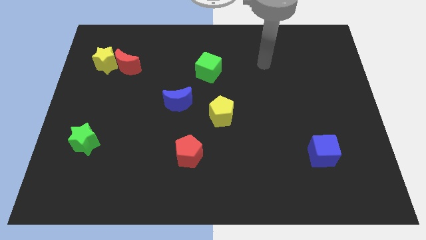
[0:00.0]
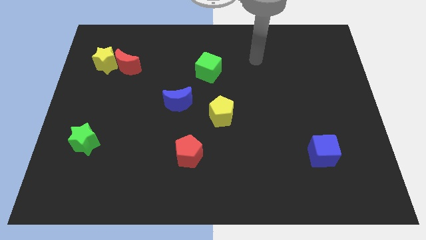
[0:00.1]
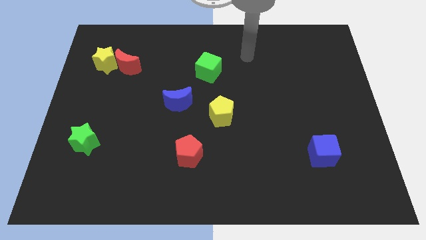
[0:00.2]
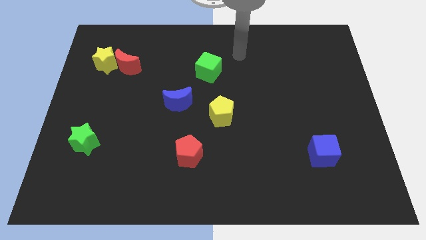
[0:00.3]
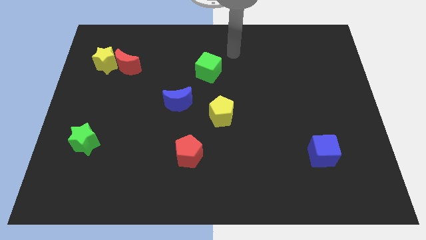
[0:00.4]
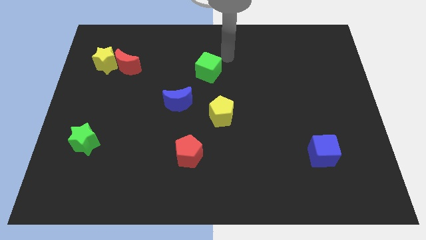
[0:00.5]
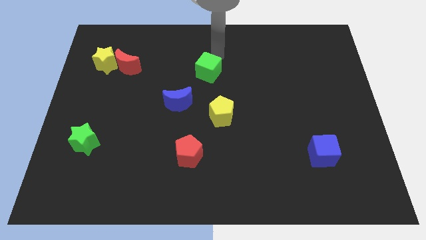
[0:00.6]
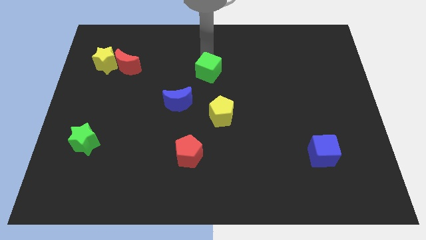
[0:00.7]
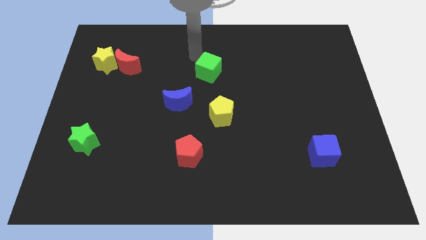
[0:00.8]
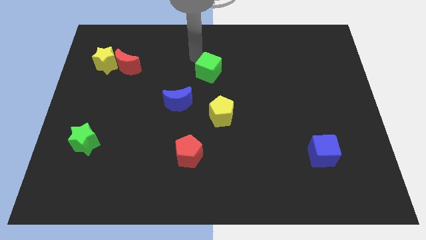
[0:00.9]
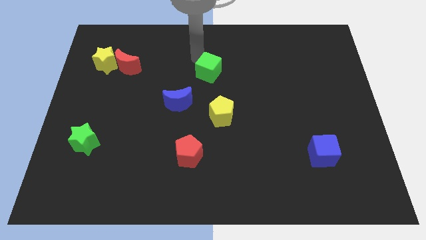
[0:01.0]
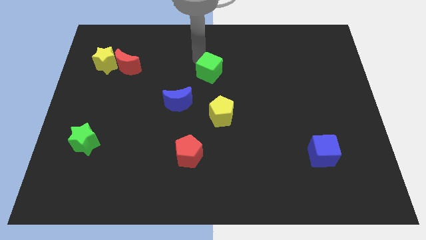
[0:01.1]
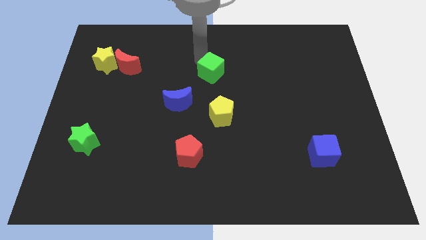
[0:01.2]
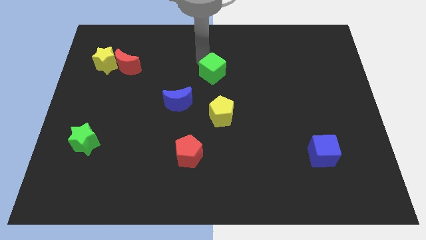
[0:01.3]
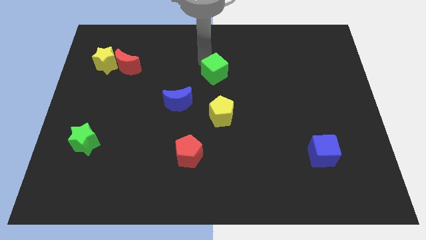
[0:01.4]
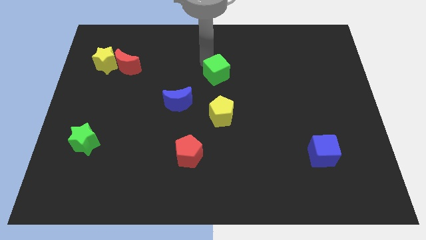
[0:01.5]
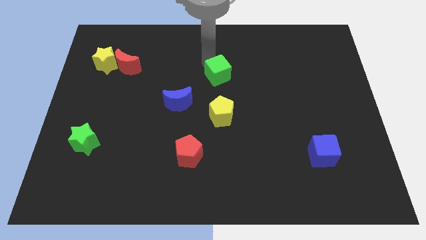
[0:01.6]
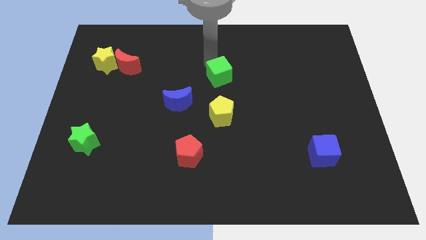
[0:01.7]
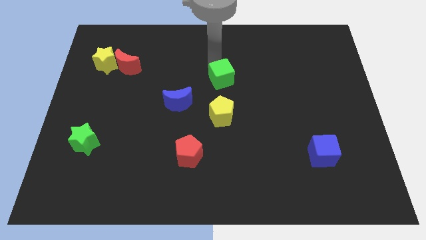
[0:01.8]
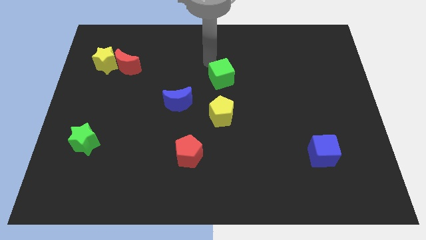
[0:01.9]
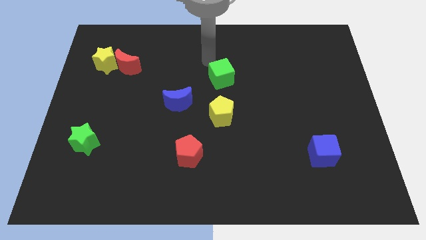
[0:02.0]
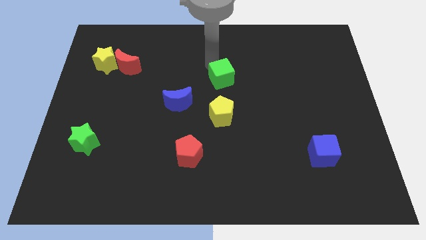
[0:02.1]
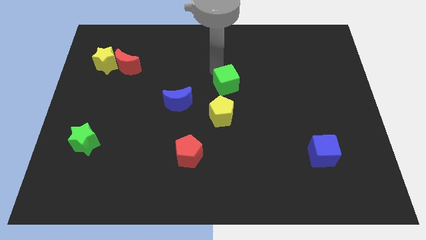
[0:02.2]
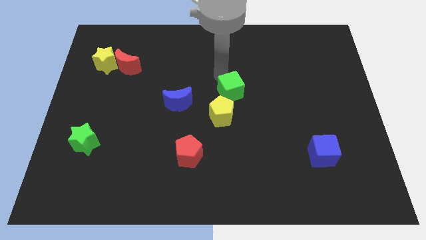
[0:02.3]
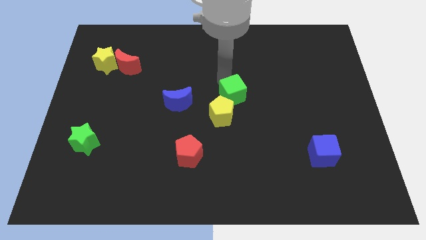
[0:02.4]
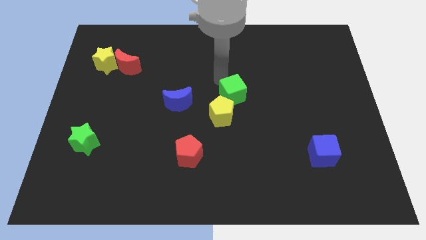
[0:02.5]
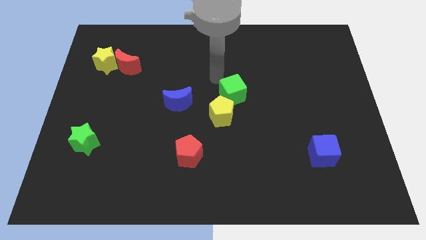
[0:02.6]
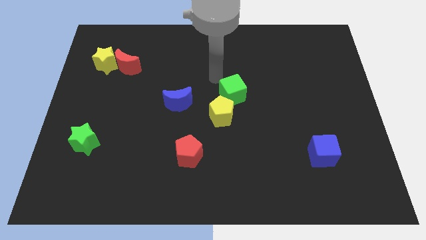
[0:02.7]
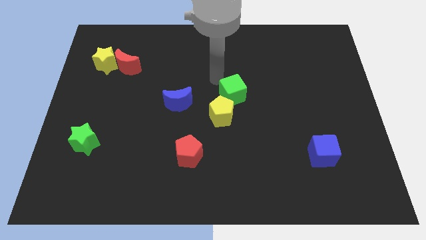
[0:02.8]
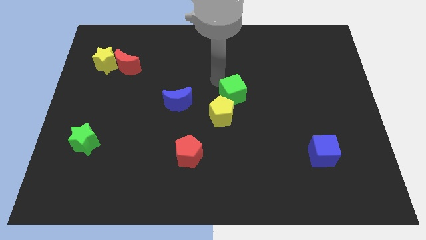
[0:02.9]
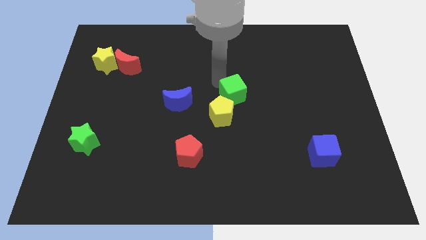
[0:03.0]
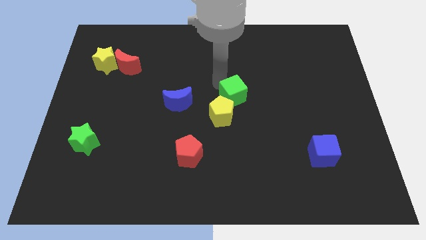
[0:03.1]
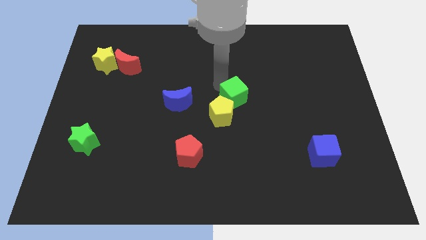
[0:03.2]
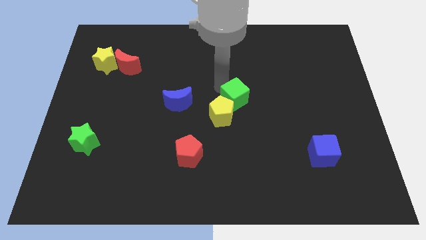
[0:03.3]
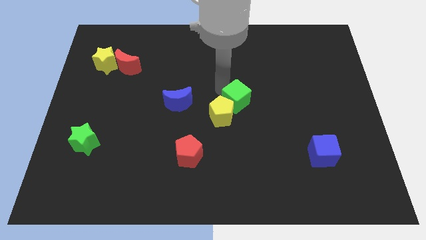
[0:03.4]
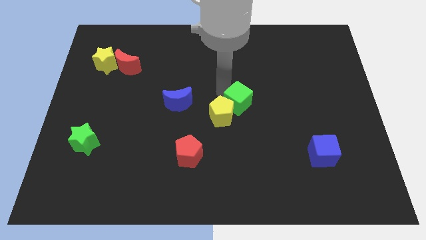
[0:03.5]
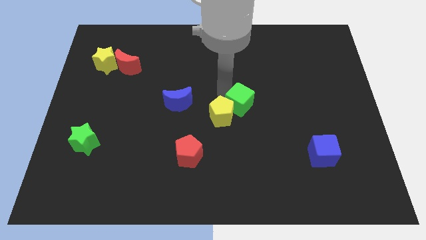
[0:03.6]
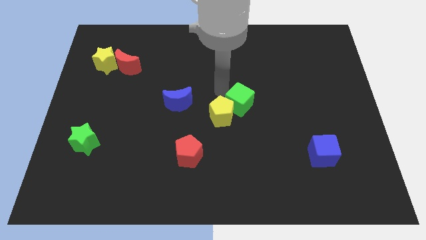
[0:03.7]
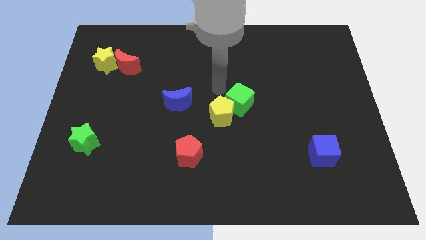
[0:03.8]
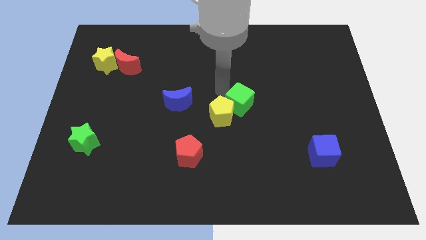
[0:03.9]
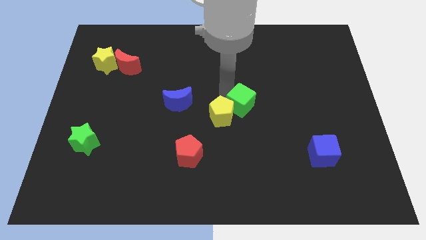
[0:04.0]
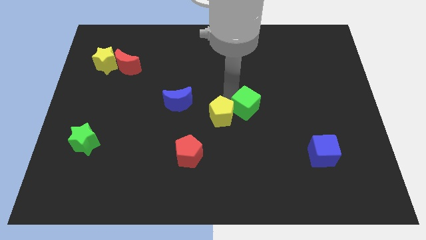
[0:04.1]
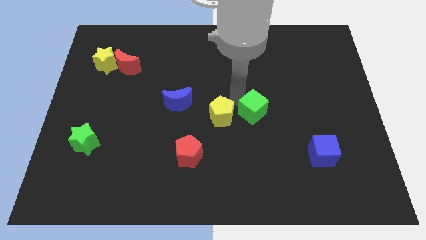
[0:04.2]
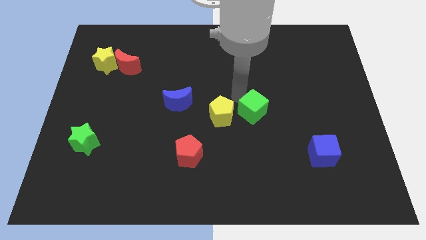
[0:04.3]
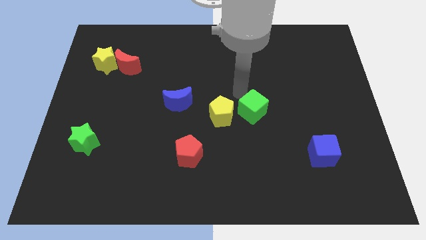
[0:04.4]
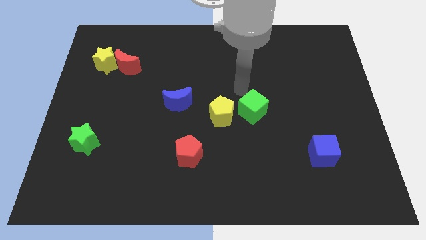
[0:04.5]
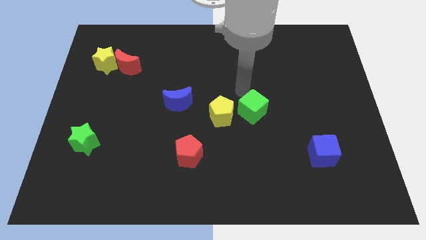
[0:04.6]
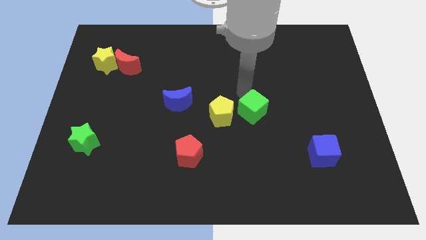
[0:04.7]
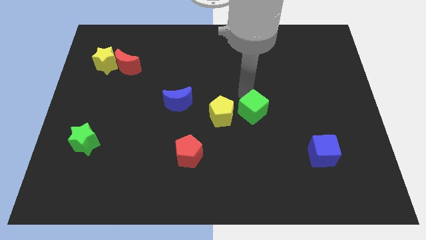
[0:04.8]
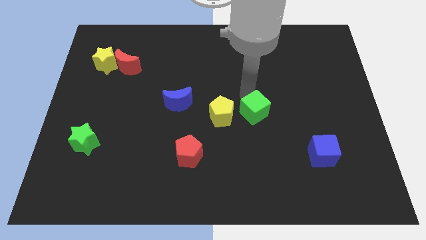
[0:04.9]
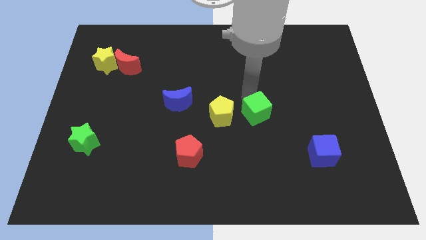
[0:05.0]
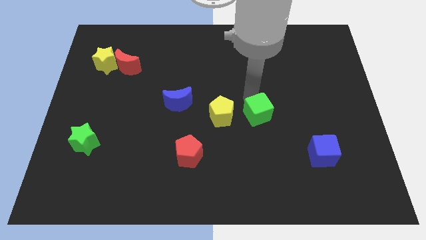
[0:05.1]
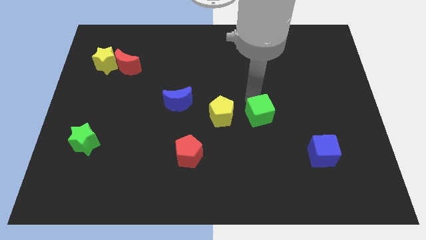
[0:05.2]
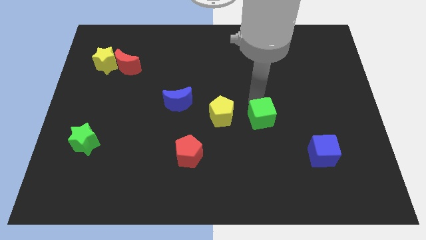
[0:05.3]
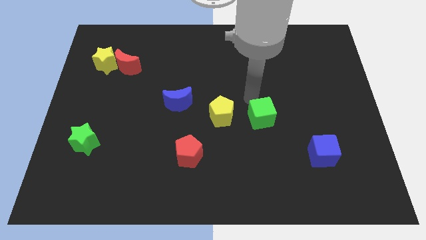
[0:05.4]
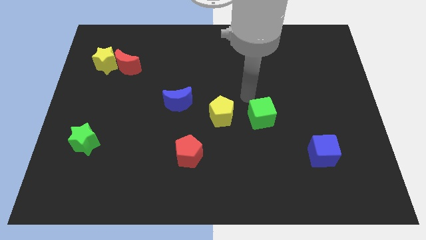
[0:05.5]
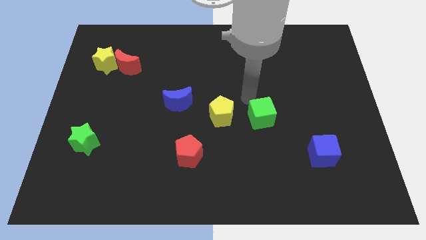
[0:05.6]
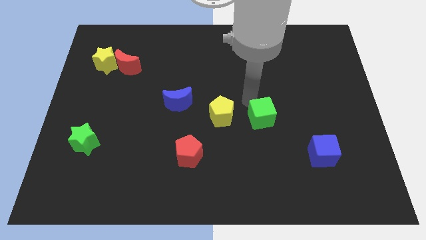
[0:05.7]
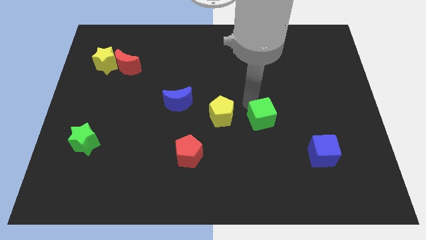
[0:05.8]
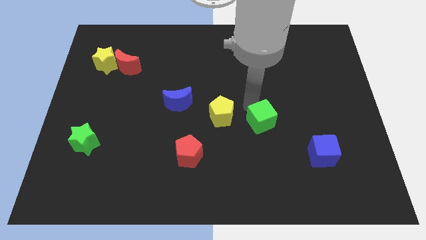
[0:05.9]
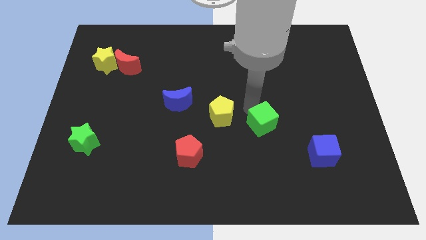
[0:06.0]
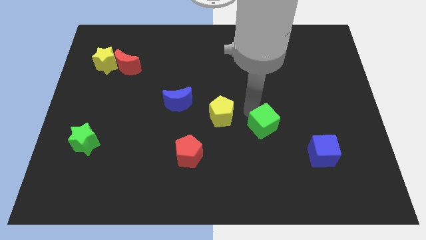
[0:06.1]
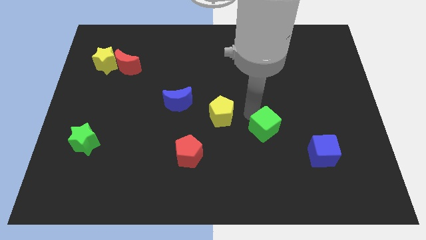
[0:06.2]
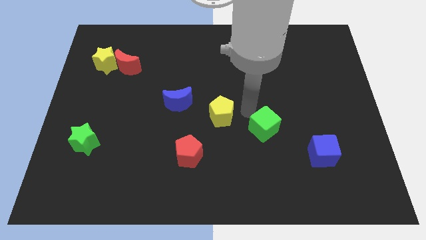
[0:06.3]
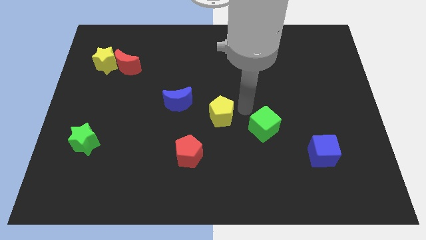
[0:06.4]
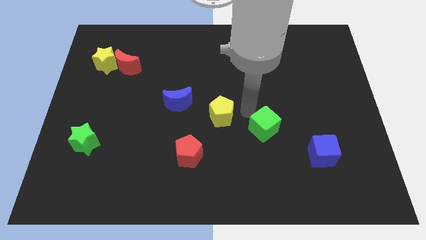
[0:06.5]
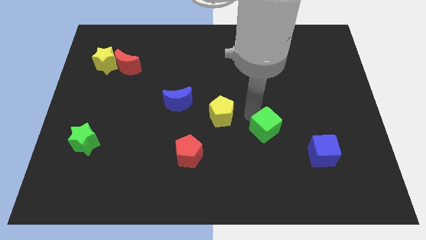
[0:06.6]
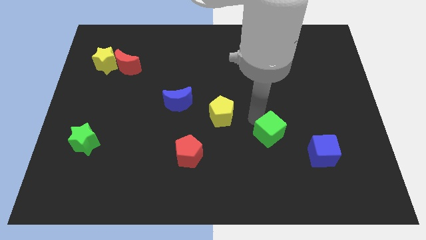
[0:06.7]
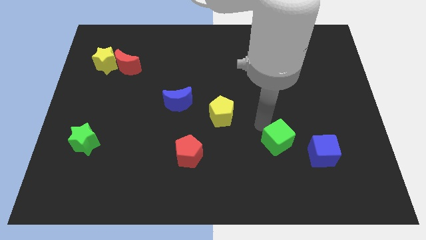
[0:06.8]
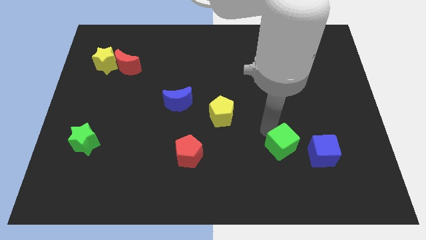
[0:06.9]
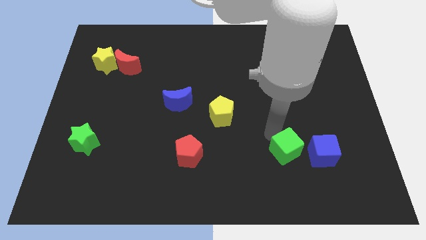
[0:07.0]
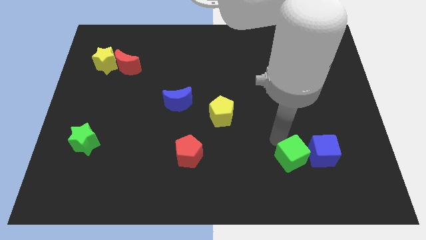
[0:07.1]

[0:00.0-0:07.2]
push the green cube to the bottom left side of the blue cube
